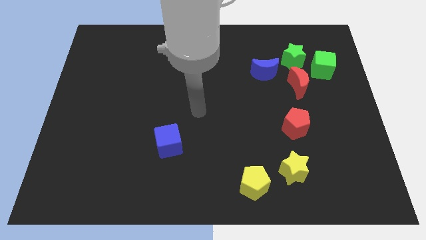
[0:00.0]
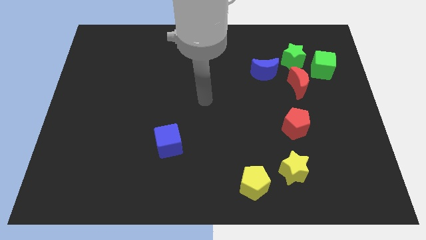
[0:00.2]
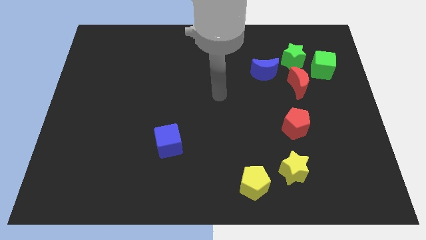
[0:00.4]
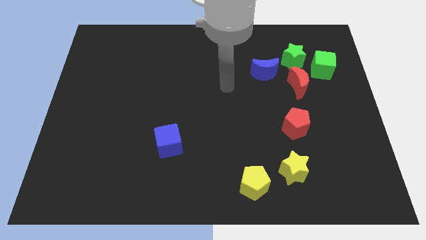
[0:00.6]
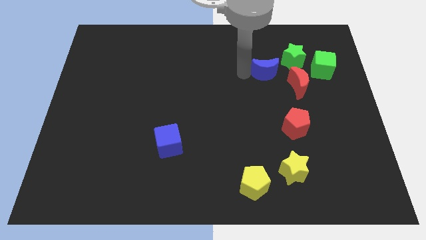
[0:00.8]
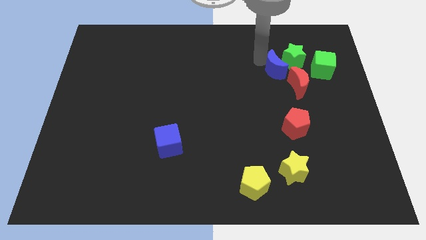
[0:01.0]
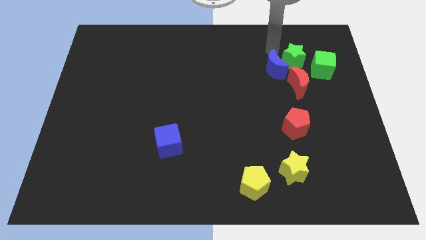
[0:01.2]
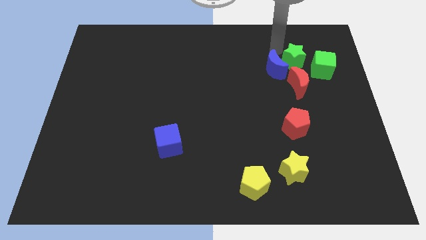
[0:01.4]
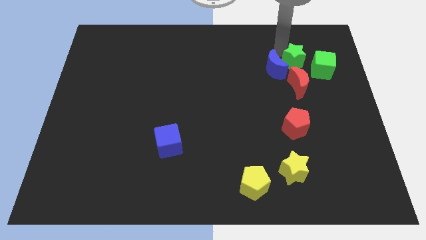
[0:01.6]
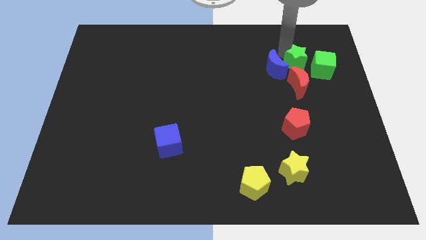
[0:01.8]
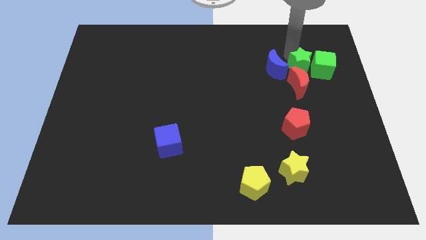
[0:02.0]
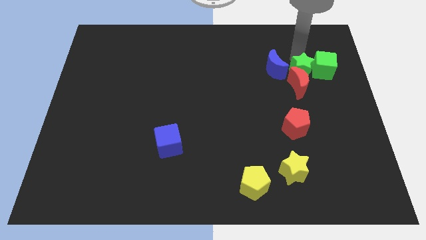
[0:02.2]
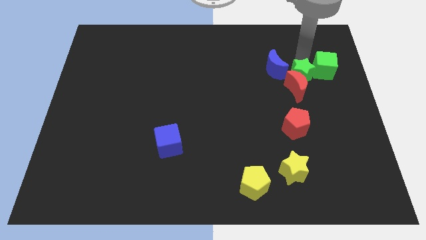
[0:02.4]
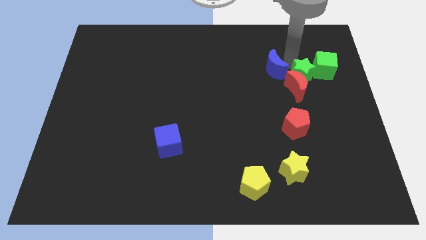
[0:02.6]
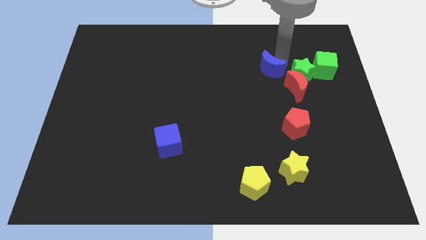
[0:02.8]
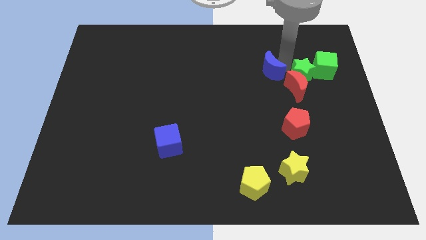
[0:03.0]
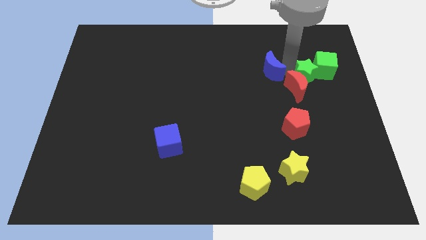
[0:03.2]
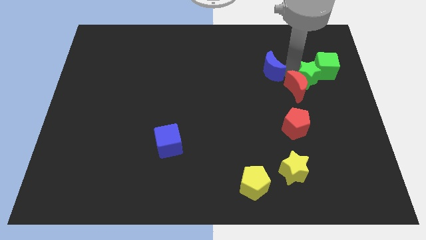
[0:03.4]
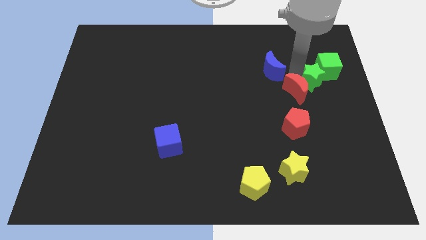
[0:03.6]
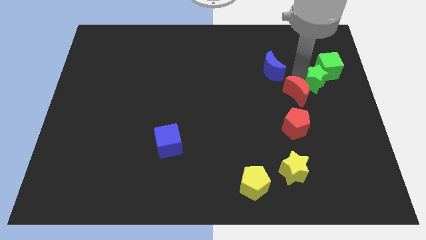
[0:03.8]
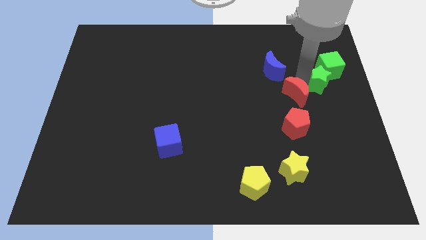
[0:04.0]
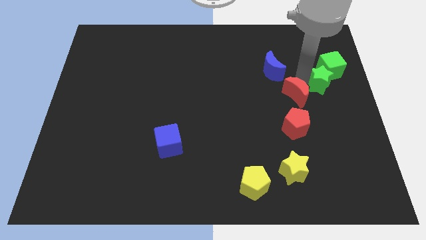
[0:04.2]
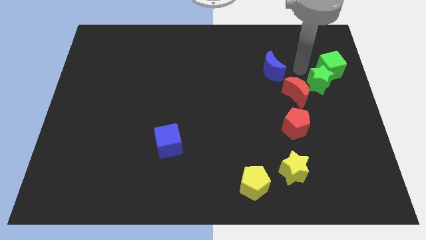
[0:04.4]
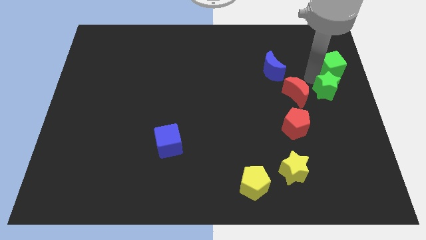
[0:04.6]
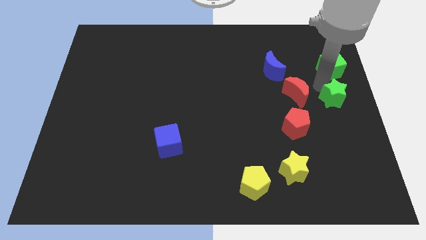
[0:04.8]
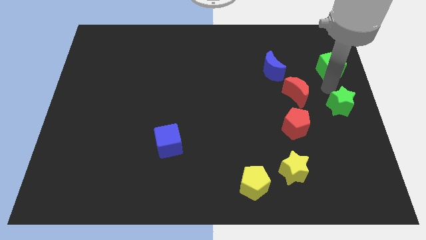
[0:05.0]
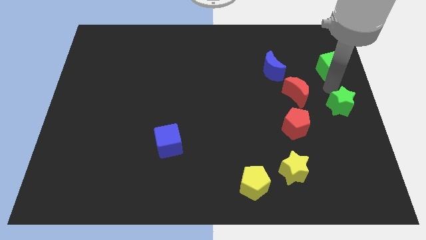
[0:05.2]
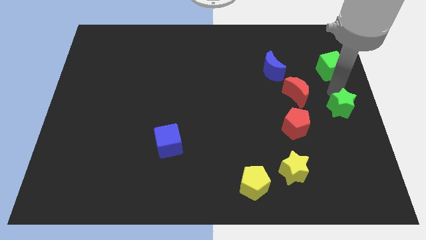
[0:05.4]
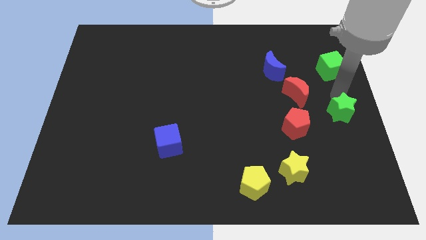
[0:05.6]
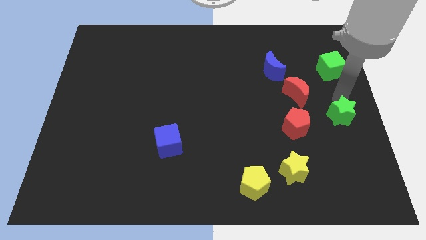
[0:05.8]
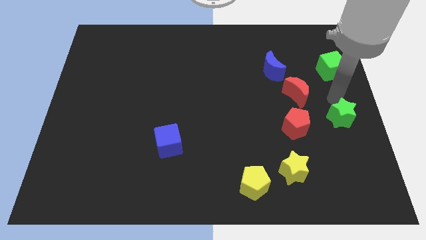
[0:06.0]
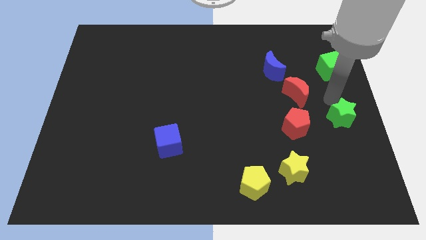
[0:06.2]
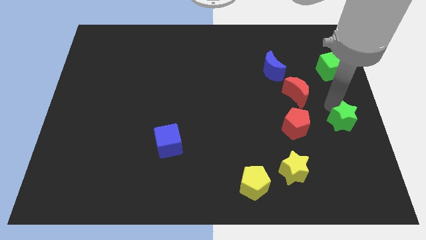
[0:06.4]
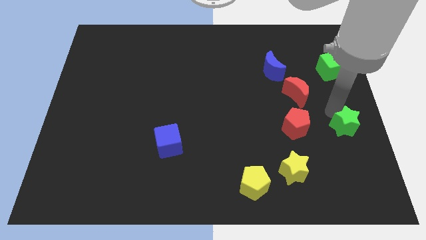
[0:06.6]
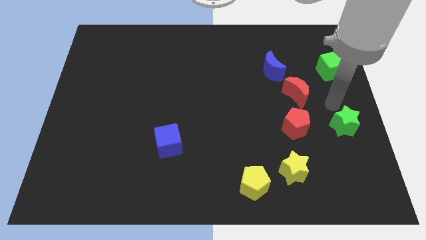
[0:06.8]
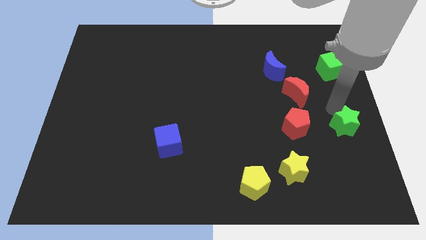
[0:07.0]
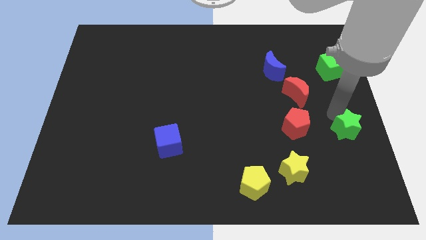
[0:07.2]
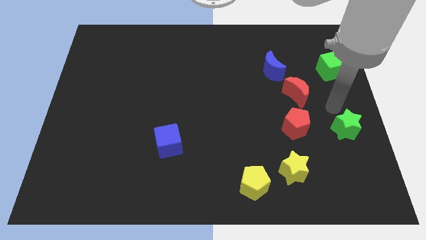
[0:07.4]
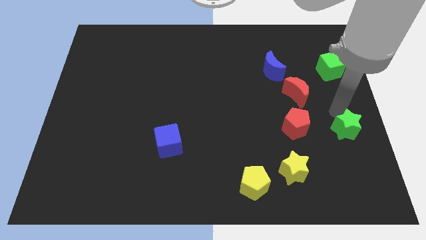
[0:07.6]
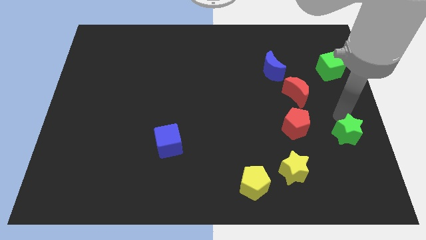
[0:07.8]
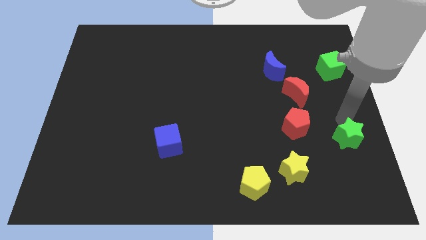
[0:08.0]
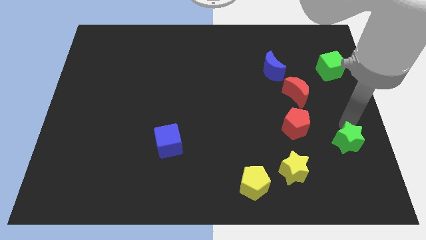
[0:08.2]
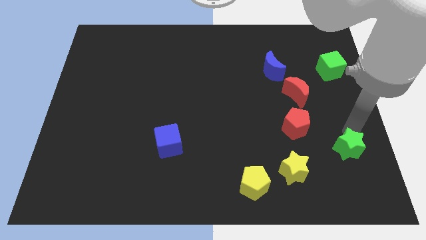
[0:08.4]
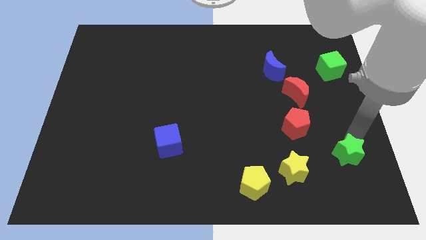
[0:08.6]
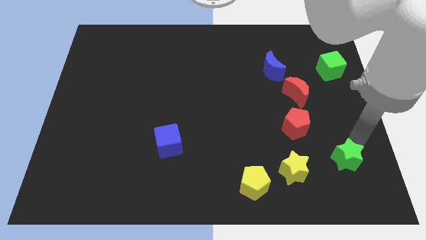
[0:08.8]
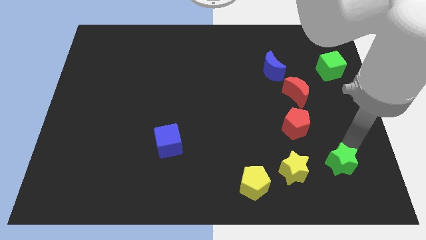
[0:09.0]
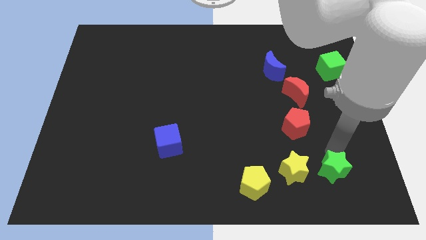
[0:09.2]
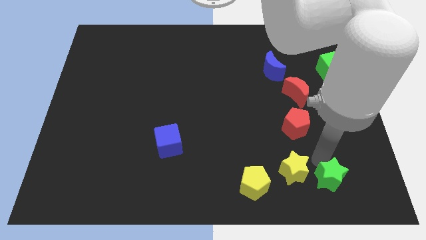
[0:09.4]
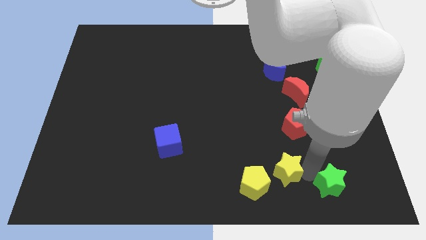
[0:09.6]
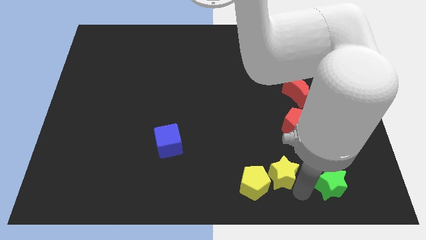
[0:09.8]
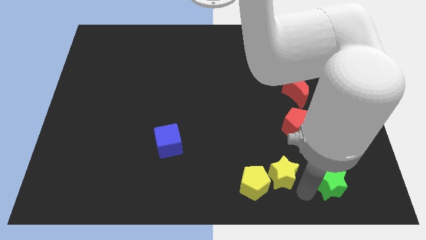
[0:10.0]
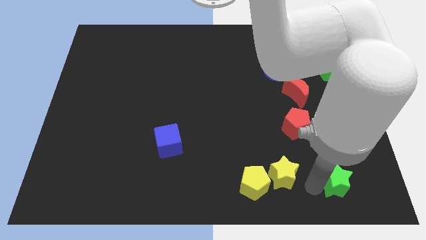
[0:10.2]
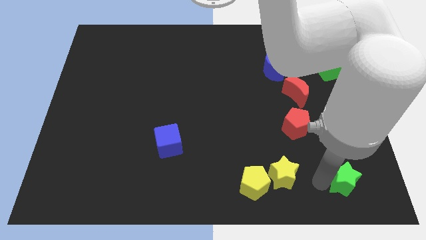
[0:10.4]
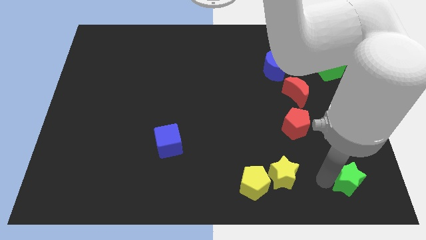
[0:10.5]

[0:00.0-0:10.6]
push the green star to the bottom right corner

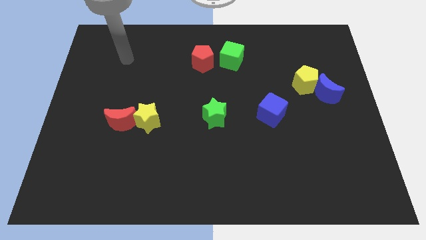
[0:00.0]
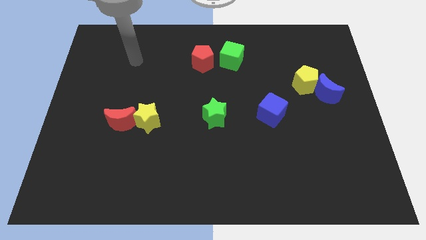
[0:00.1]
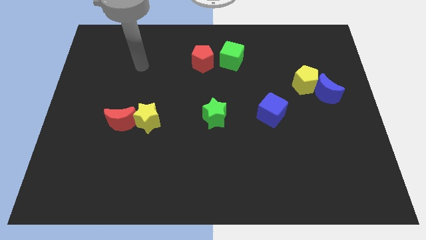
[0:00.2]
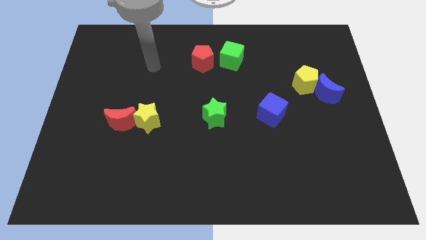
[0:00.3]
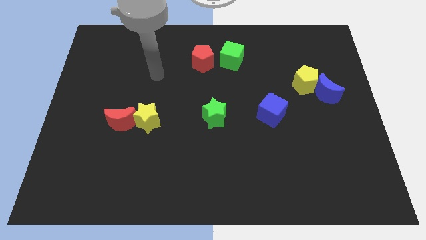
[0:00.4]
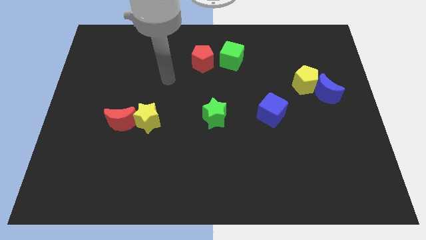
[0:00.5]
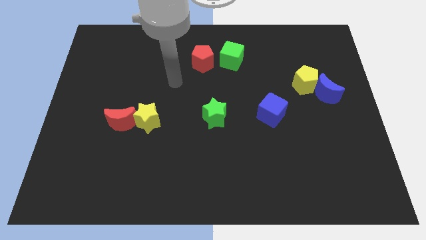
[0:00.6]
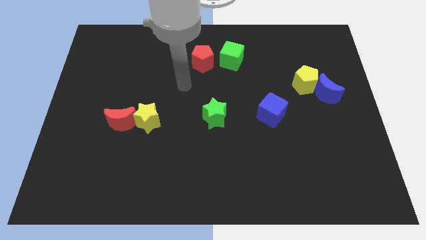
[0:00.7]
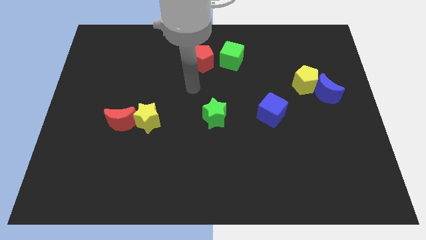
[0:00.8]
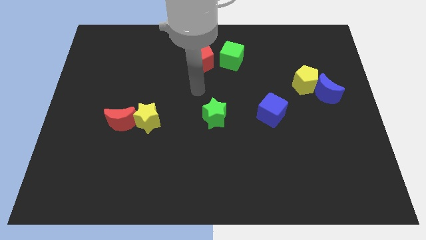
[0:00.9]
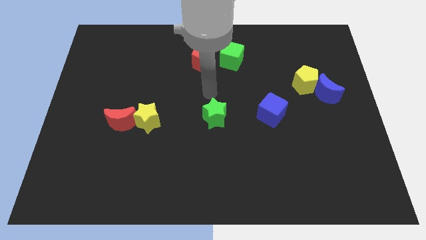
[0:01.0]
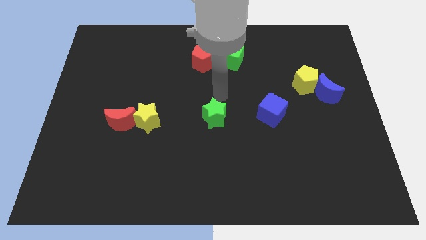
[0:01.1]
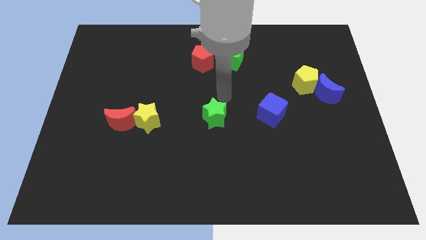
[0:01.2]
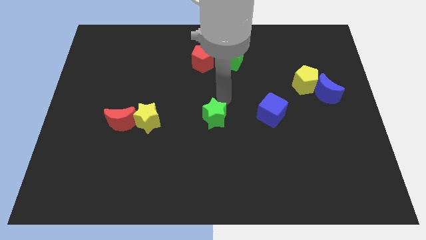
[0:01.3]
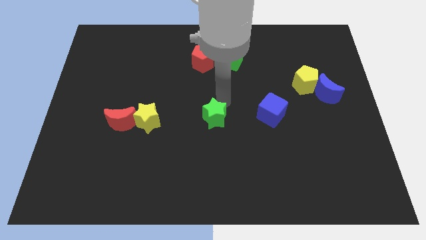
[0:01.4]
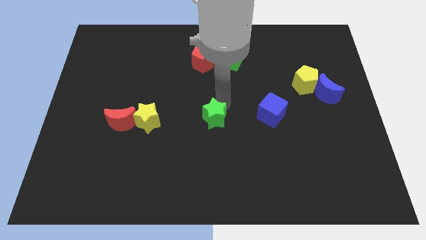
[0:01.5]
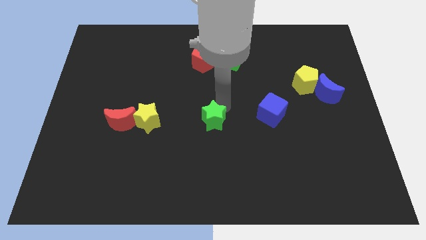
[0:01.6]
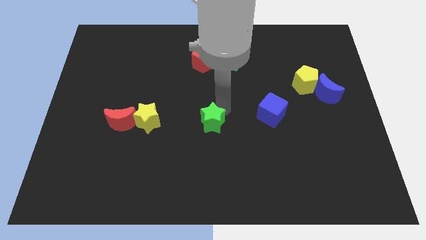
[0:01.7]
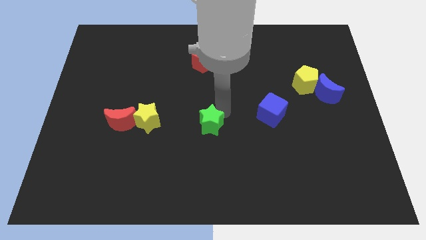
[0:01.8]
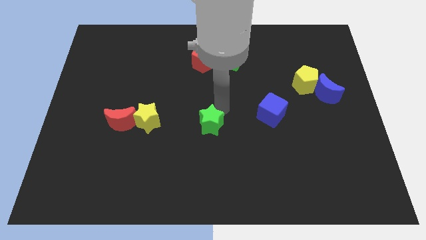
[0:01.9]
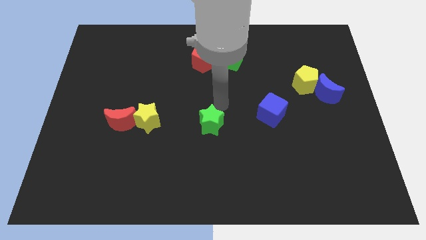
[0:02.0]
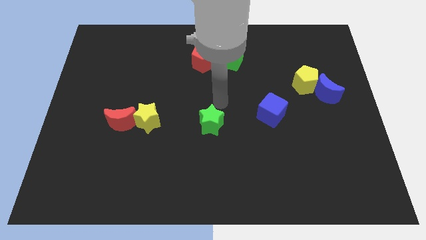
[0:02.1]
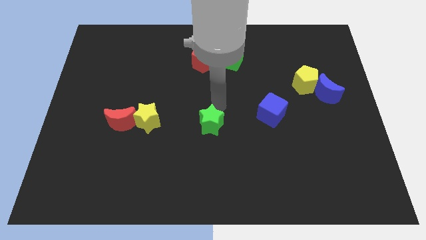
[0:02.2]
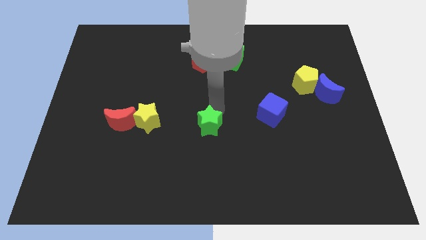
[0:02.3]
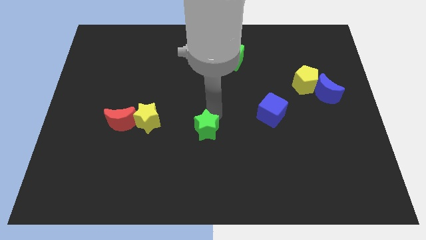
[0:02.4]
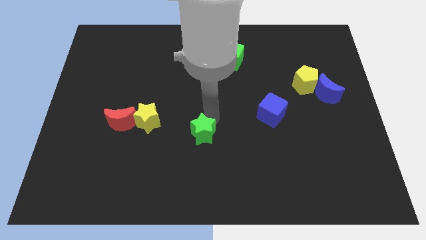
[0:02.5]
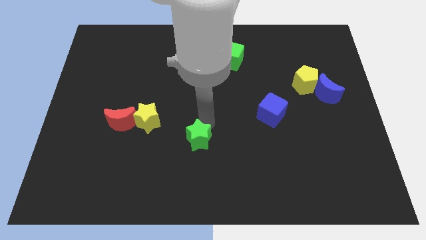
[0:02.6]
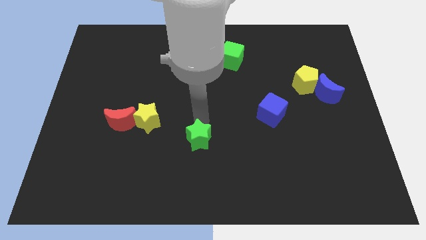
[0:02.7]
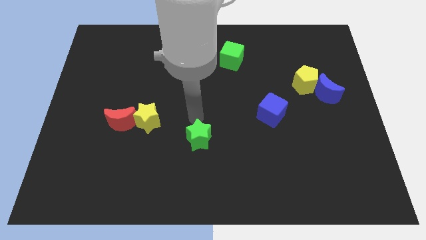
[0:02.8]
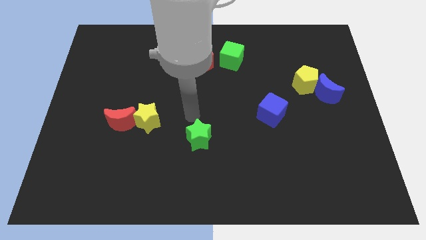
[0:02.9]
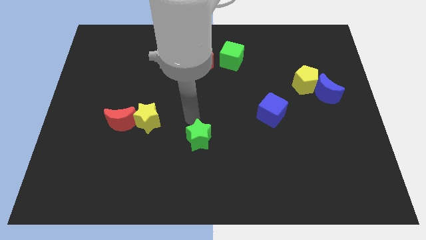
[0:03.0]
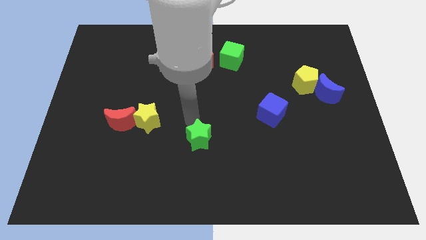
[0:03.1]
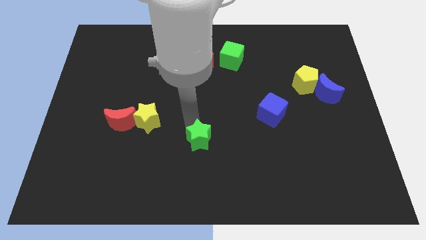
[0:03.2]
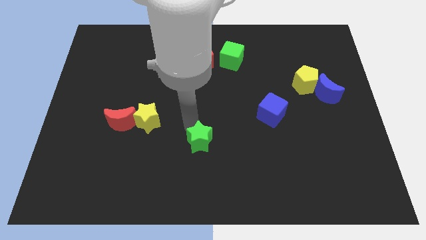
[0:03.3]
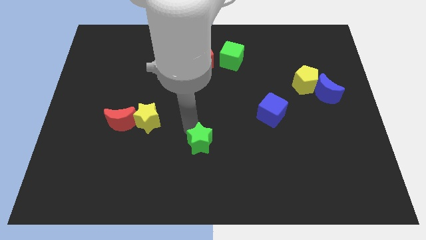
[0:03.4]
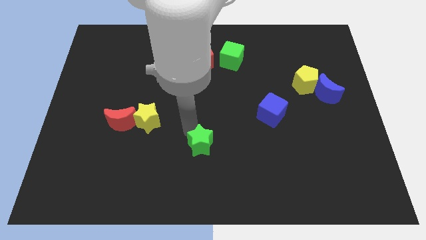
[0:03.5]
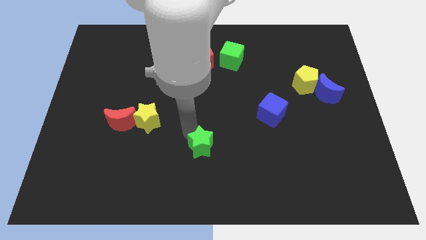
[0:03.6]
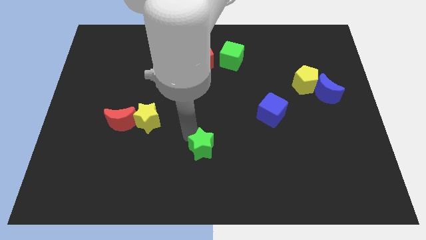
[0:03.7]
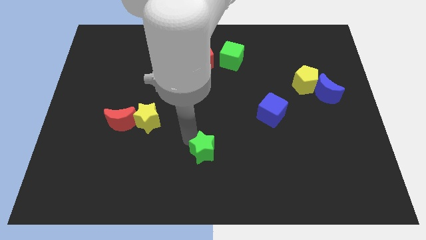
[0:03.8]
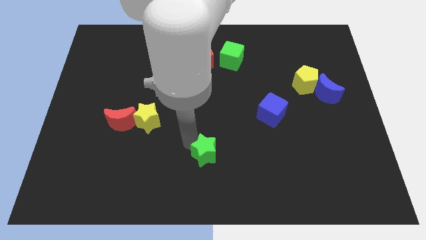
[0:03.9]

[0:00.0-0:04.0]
push the green star to the bottom
